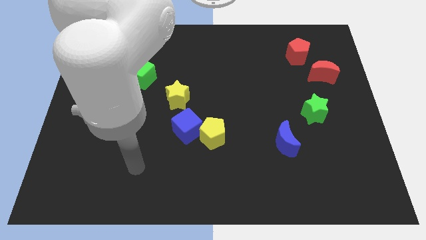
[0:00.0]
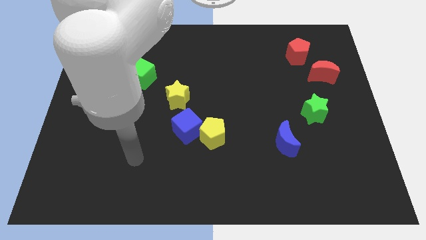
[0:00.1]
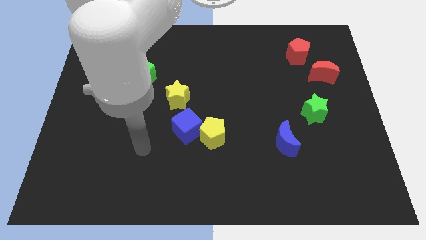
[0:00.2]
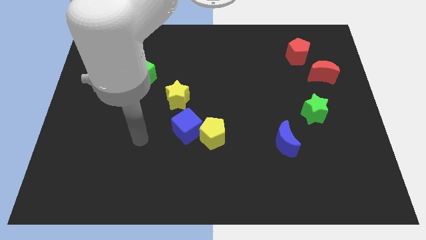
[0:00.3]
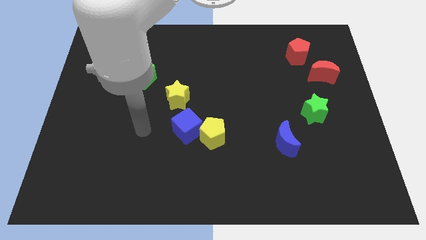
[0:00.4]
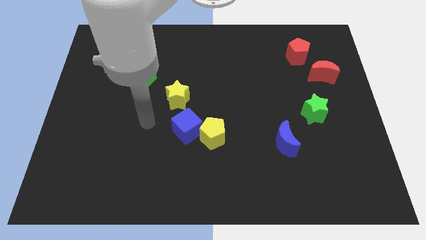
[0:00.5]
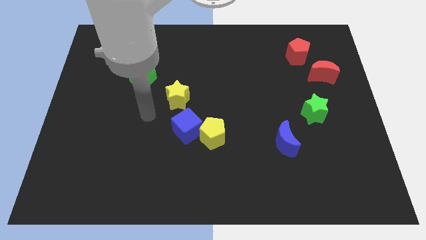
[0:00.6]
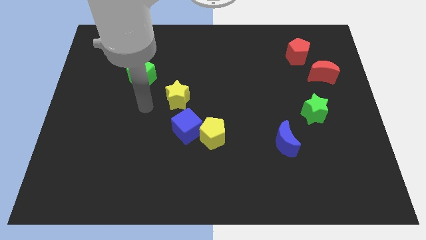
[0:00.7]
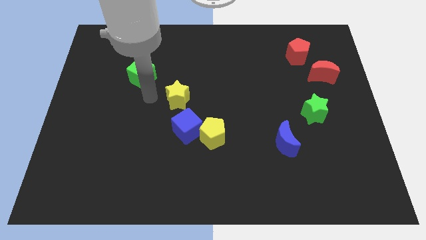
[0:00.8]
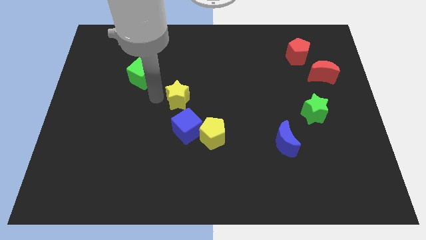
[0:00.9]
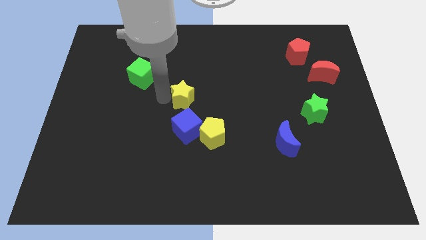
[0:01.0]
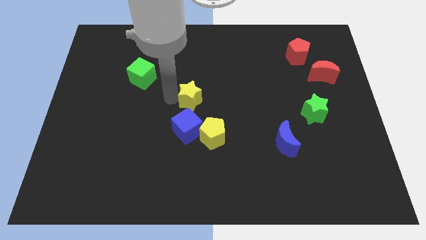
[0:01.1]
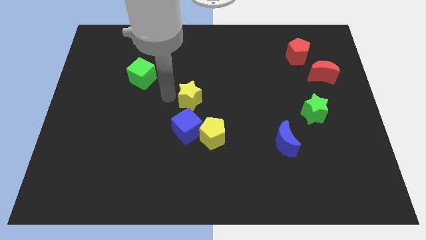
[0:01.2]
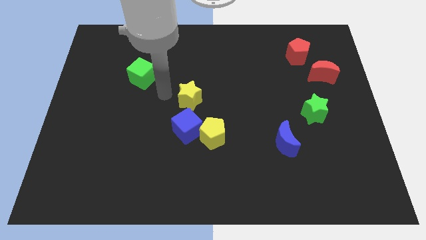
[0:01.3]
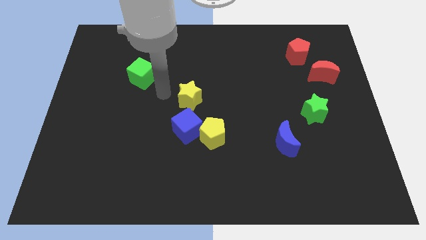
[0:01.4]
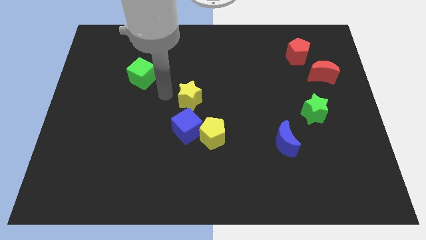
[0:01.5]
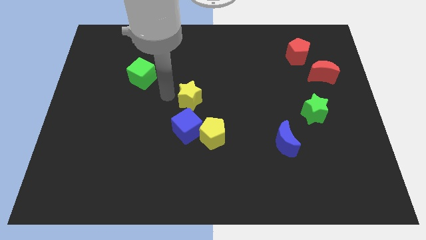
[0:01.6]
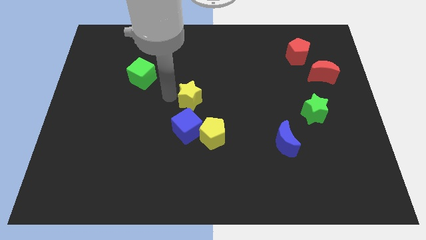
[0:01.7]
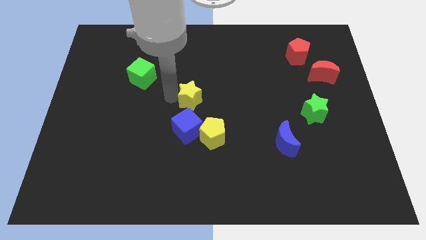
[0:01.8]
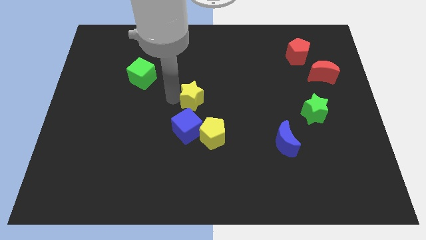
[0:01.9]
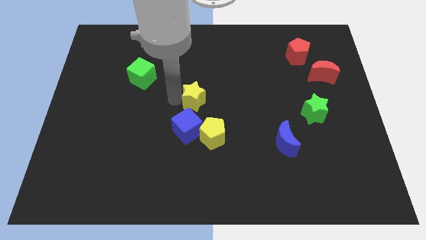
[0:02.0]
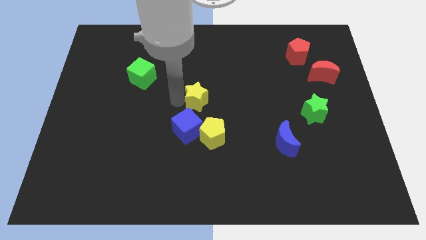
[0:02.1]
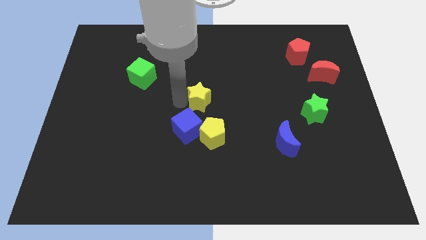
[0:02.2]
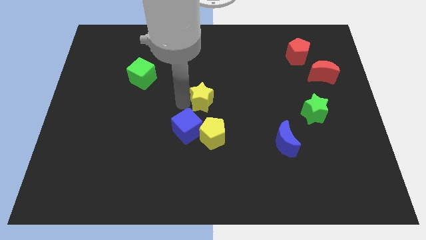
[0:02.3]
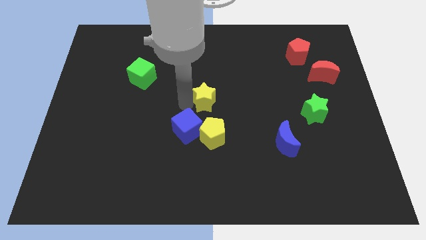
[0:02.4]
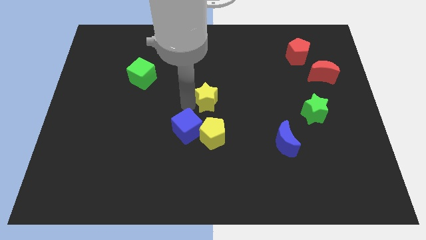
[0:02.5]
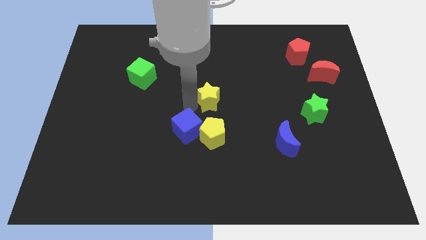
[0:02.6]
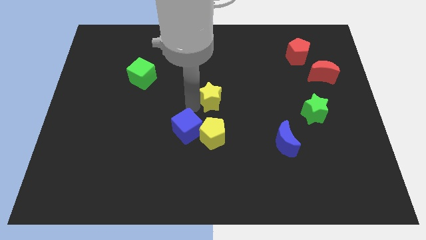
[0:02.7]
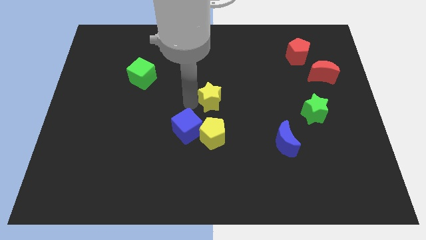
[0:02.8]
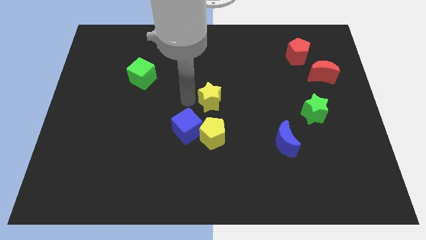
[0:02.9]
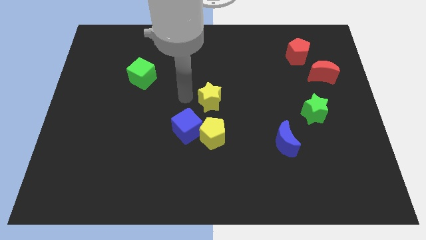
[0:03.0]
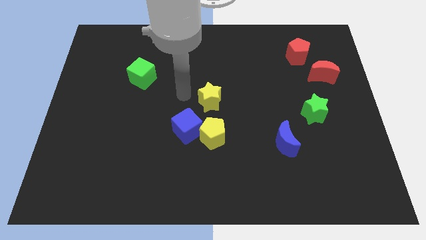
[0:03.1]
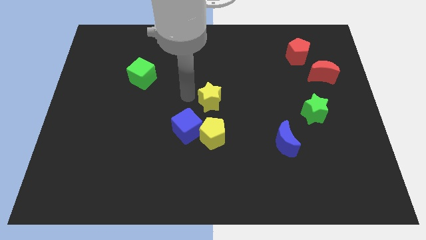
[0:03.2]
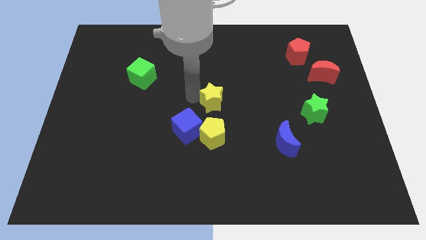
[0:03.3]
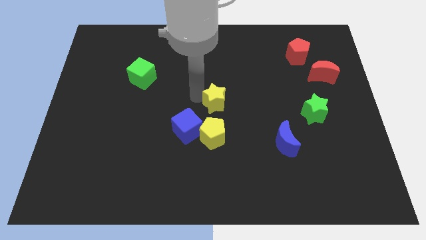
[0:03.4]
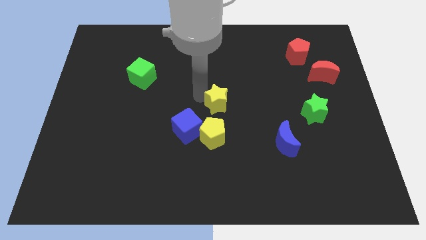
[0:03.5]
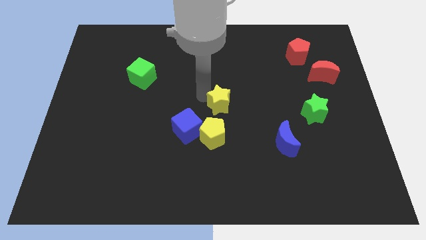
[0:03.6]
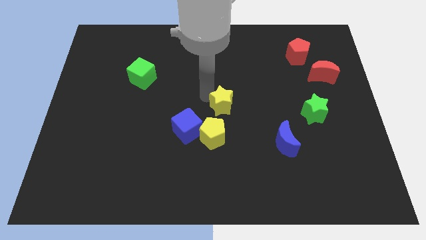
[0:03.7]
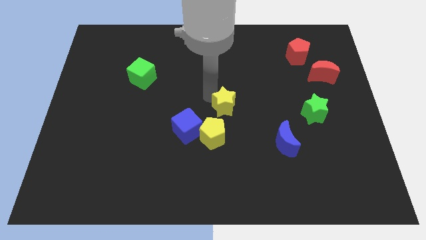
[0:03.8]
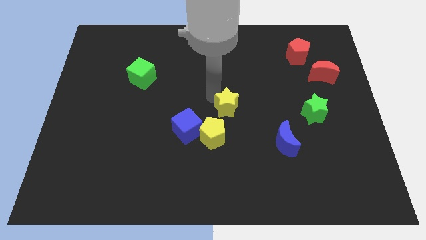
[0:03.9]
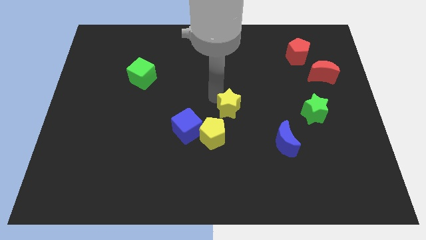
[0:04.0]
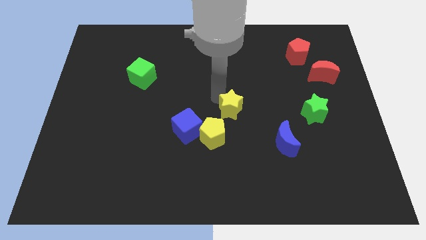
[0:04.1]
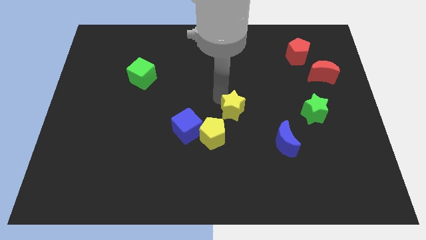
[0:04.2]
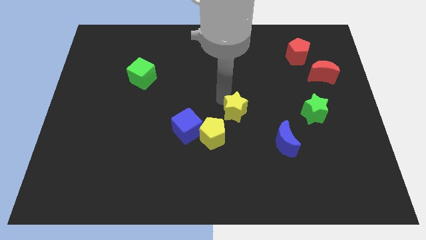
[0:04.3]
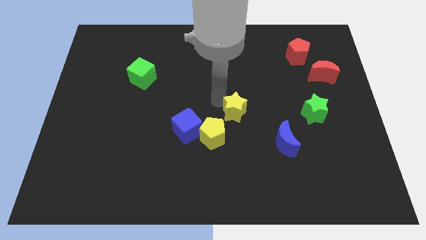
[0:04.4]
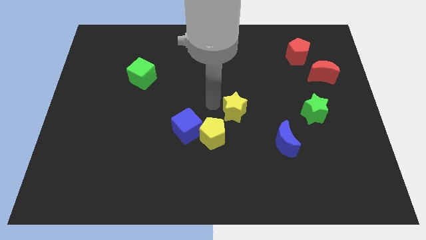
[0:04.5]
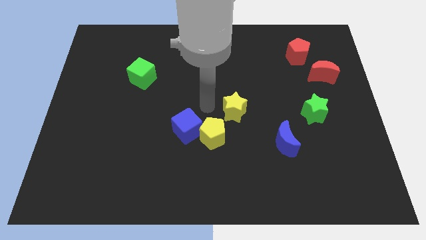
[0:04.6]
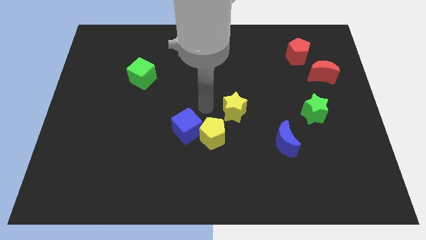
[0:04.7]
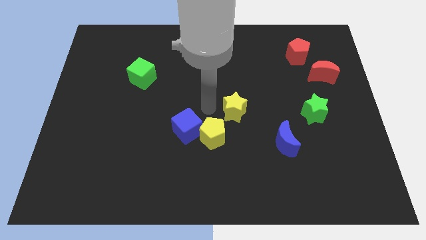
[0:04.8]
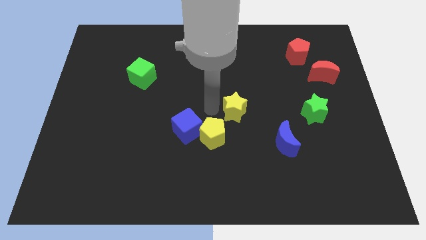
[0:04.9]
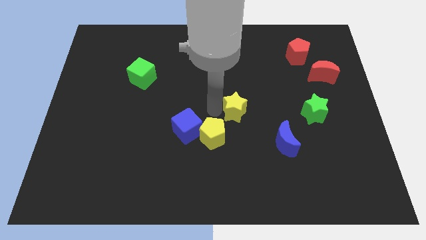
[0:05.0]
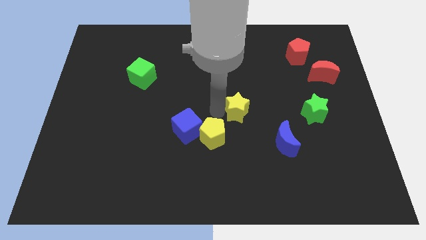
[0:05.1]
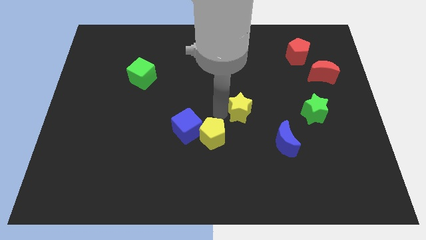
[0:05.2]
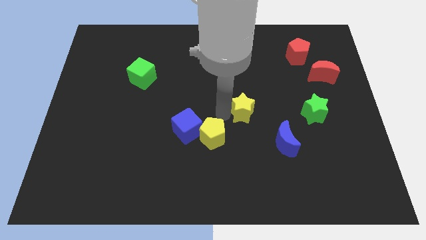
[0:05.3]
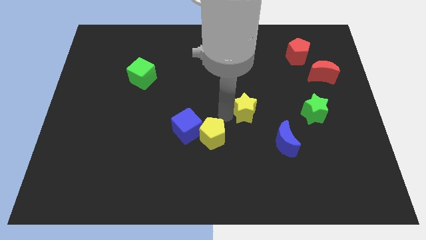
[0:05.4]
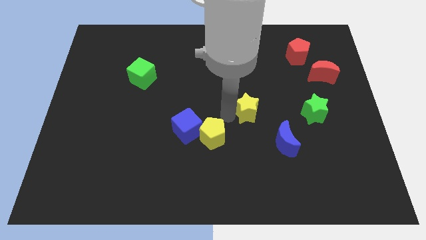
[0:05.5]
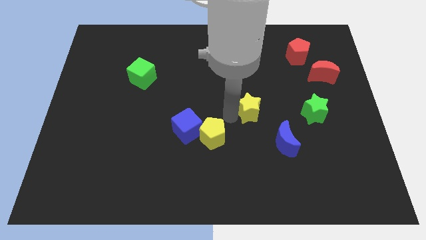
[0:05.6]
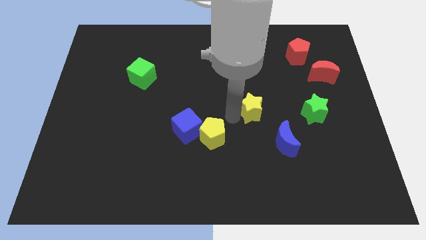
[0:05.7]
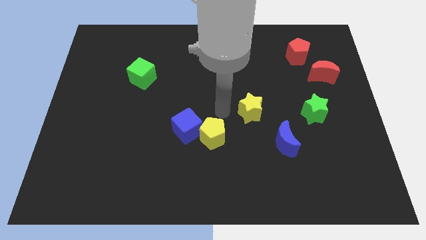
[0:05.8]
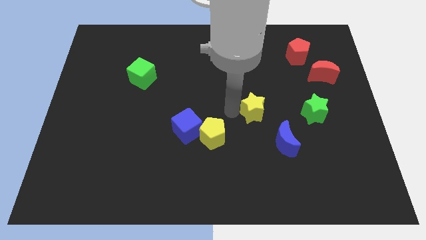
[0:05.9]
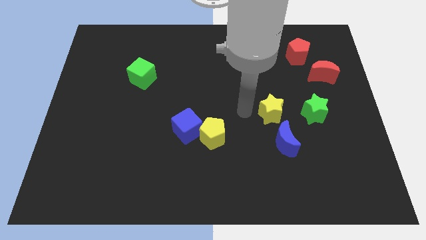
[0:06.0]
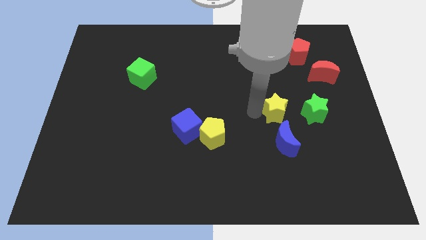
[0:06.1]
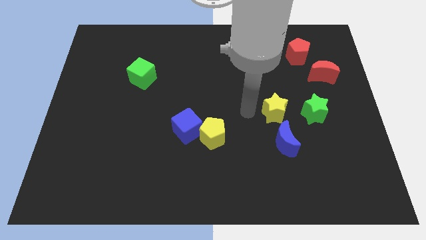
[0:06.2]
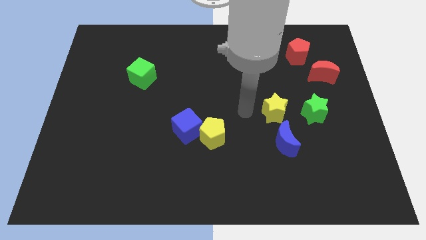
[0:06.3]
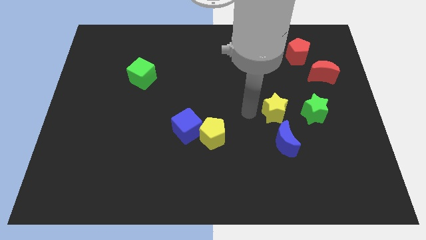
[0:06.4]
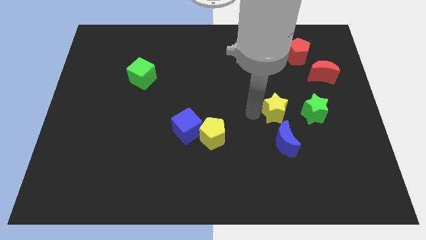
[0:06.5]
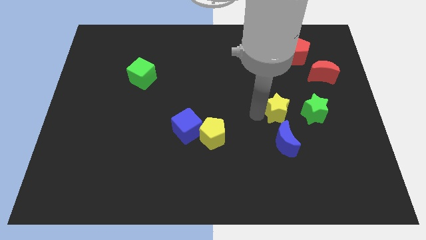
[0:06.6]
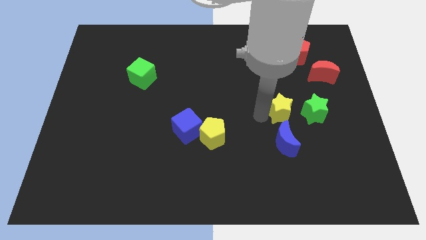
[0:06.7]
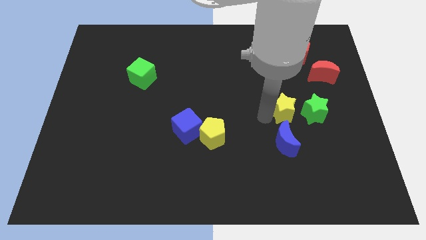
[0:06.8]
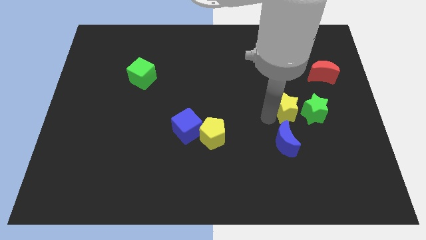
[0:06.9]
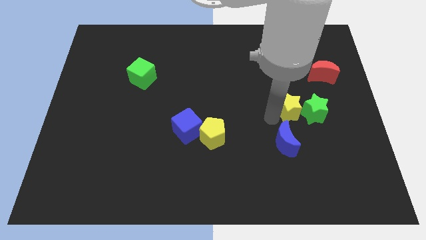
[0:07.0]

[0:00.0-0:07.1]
push the yellow star close to the green star

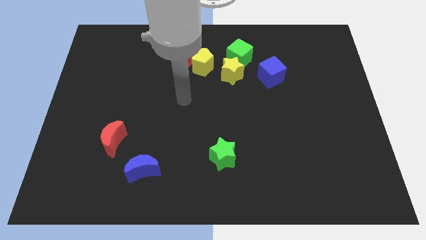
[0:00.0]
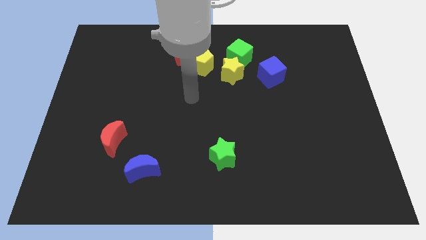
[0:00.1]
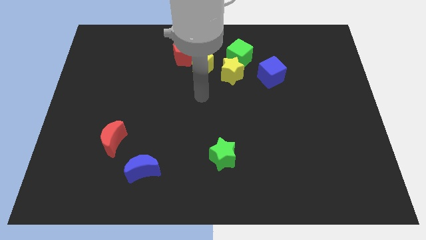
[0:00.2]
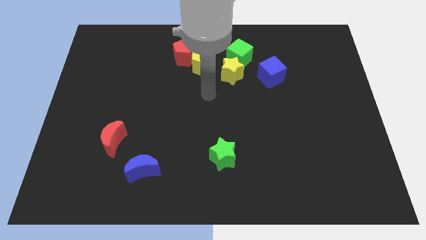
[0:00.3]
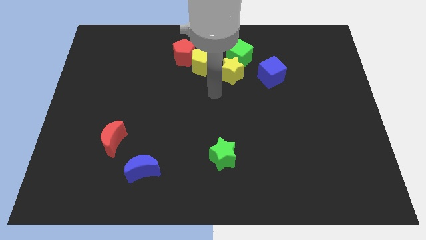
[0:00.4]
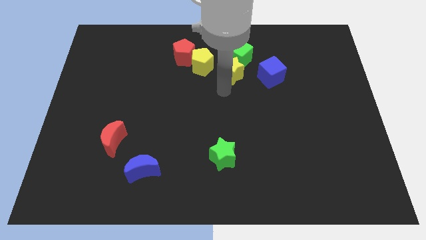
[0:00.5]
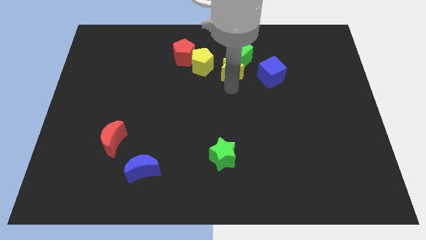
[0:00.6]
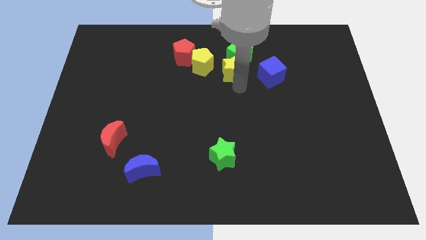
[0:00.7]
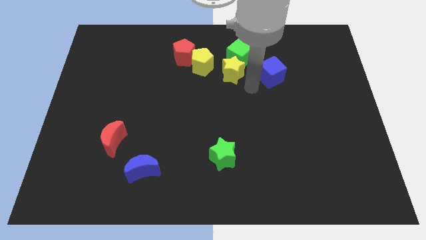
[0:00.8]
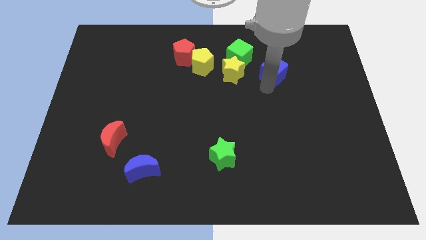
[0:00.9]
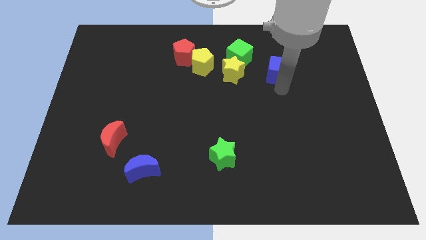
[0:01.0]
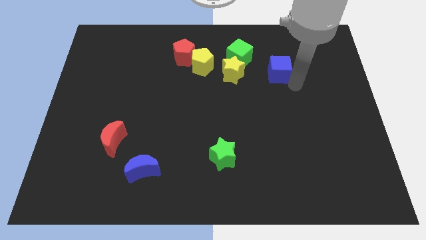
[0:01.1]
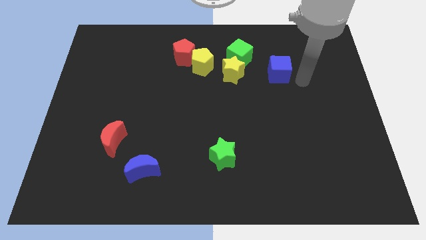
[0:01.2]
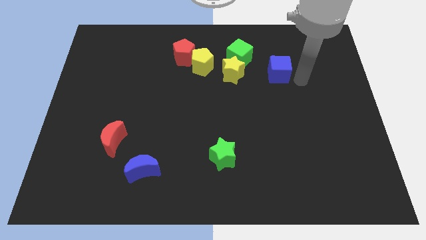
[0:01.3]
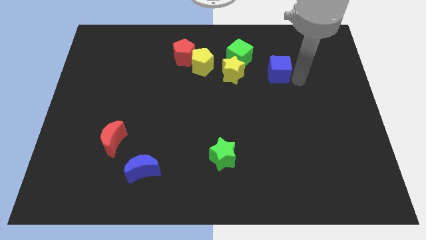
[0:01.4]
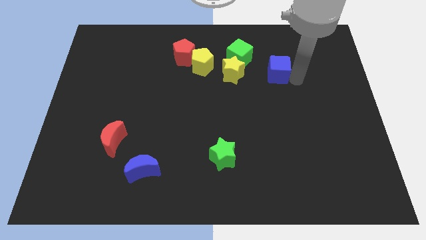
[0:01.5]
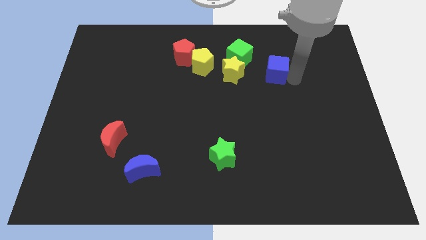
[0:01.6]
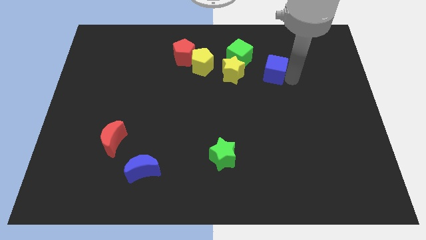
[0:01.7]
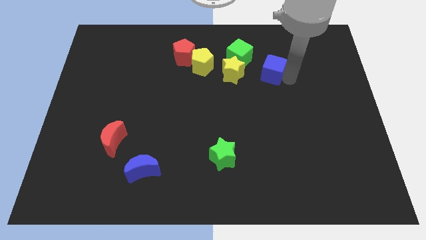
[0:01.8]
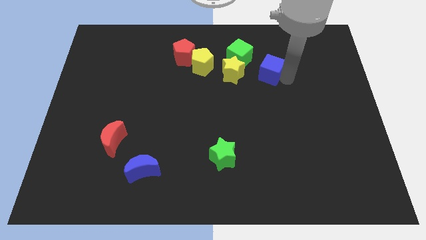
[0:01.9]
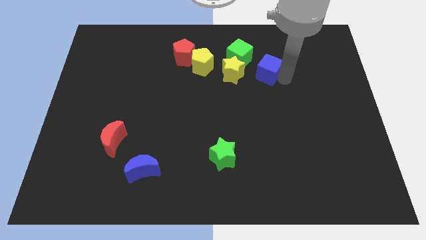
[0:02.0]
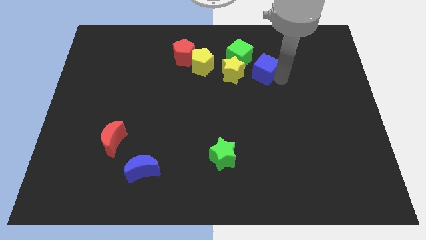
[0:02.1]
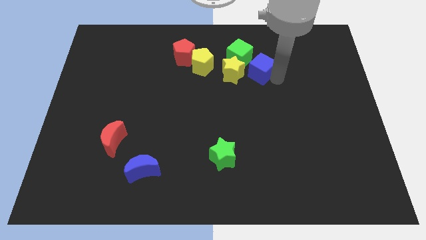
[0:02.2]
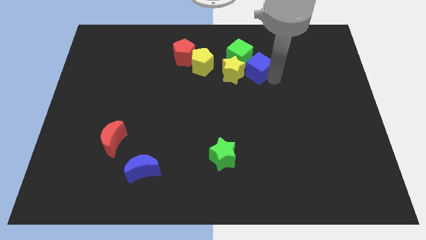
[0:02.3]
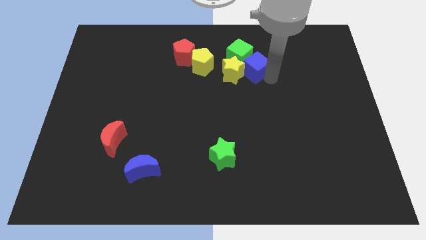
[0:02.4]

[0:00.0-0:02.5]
put the blue cube towards the green cube
